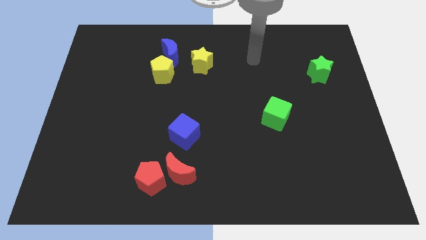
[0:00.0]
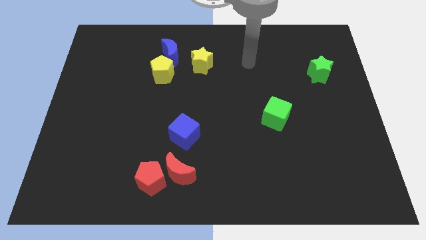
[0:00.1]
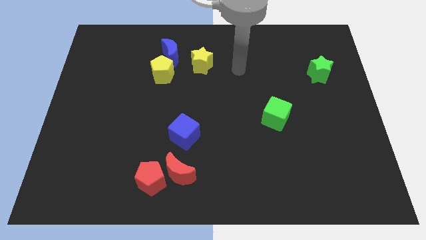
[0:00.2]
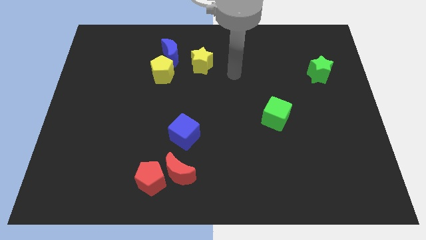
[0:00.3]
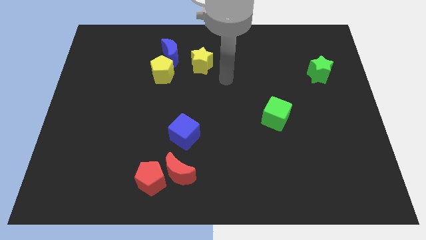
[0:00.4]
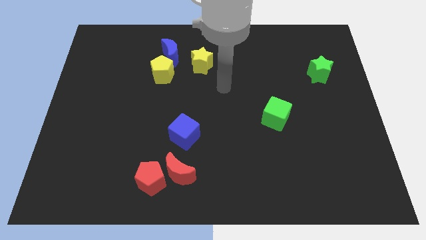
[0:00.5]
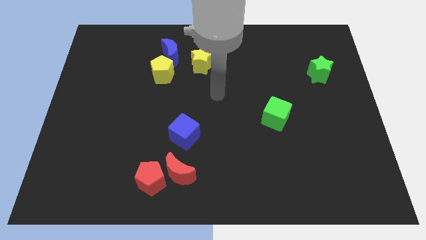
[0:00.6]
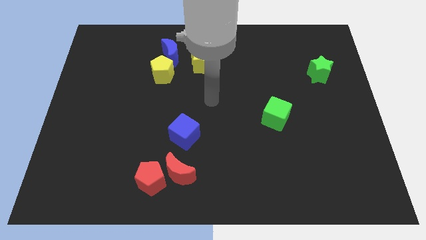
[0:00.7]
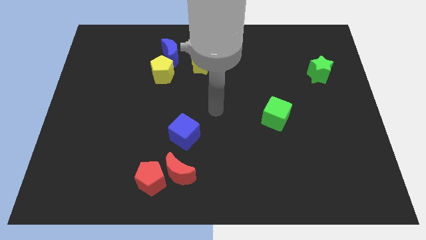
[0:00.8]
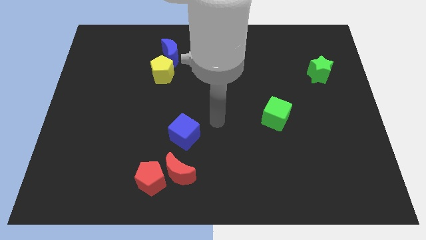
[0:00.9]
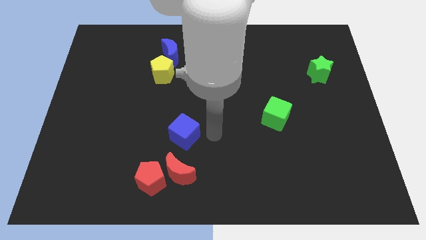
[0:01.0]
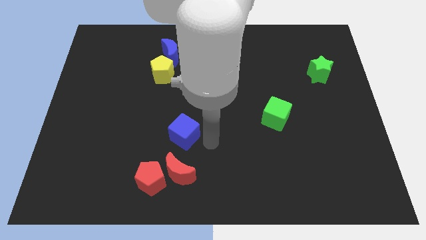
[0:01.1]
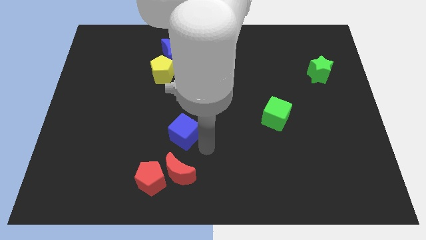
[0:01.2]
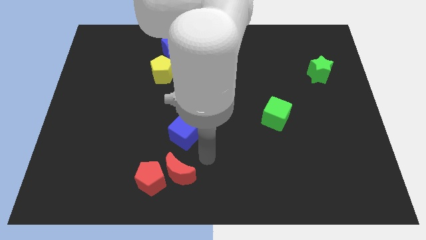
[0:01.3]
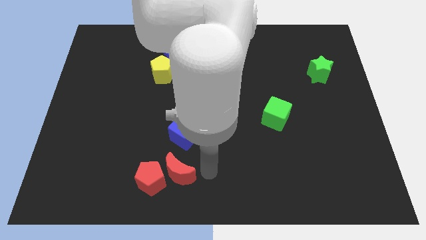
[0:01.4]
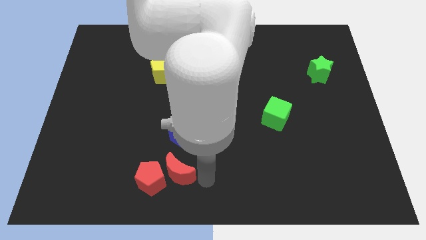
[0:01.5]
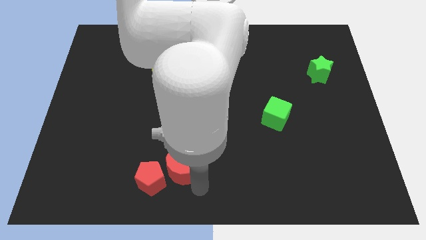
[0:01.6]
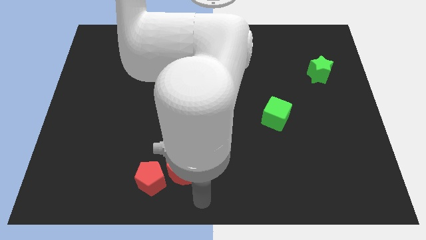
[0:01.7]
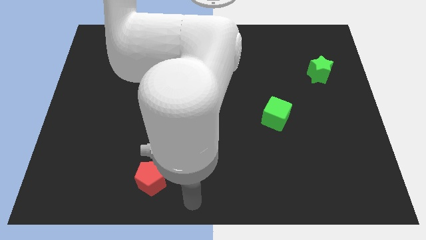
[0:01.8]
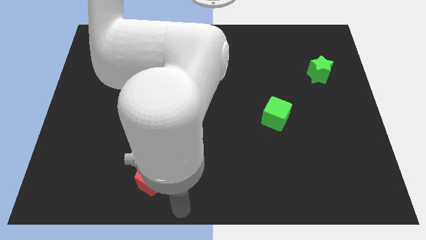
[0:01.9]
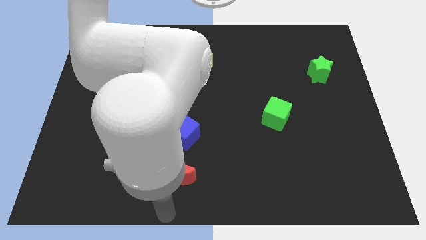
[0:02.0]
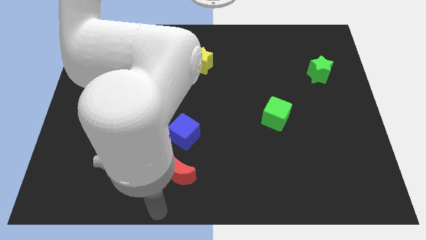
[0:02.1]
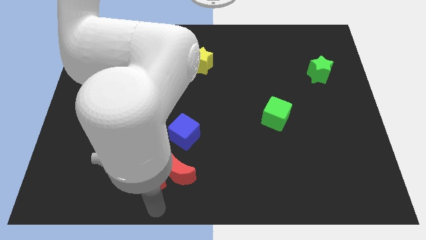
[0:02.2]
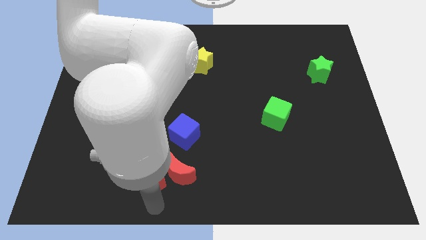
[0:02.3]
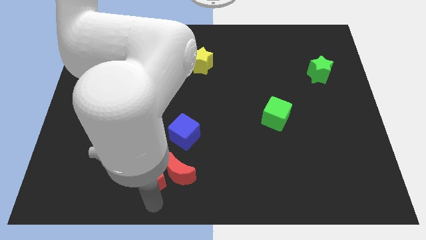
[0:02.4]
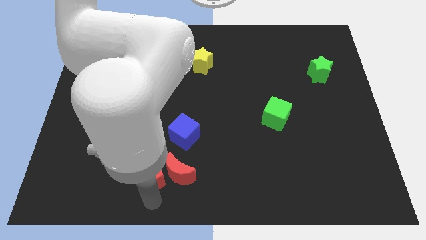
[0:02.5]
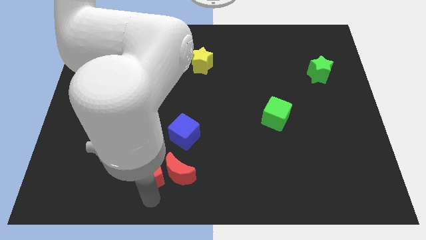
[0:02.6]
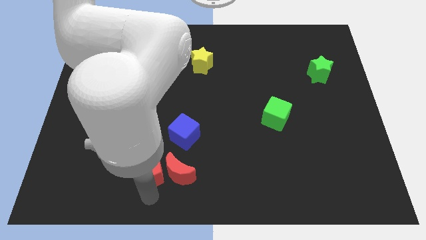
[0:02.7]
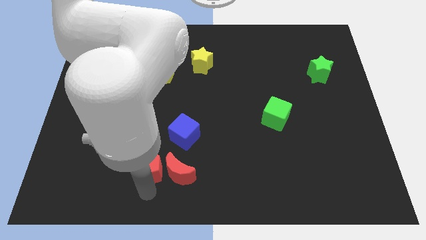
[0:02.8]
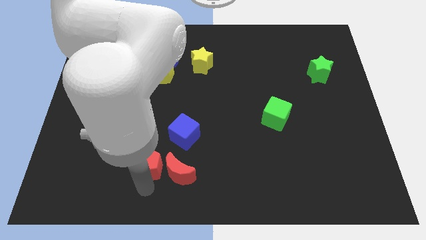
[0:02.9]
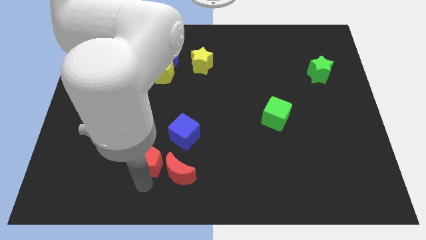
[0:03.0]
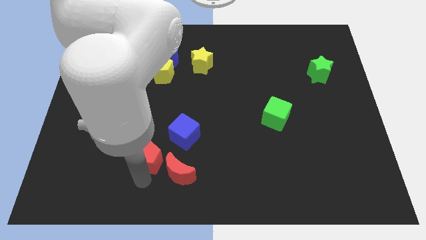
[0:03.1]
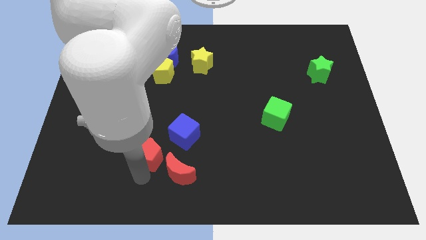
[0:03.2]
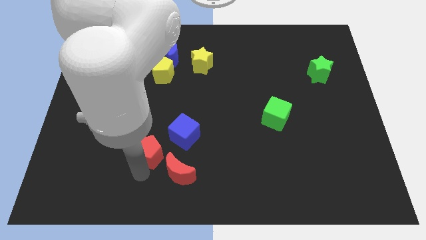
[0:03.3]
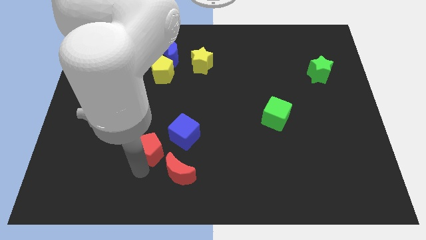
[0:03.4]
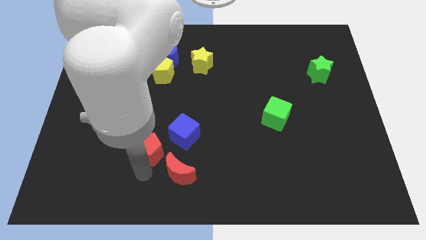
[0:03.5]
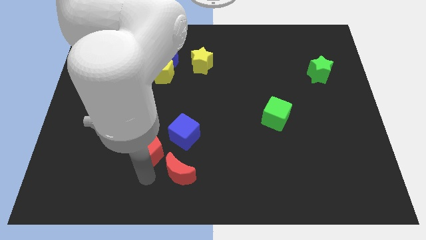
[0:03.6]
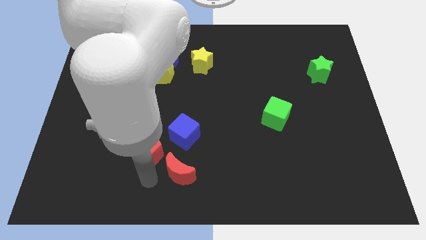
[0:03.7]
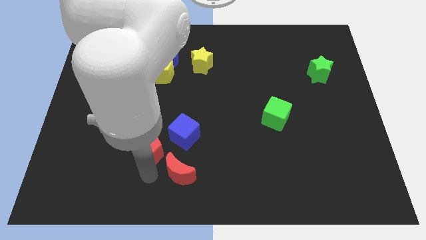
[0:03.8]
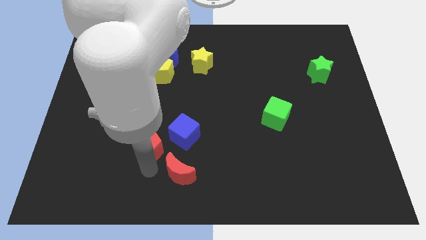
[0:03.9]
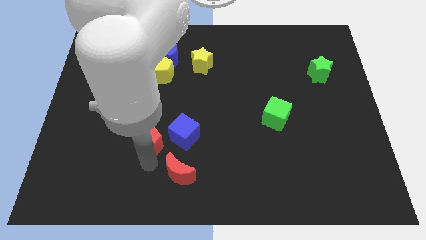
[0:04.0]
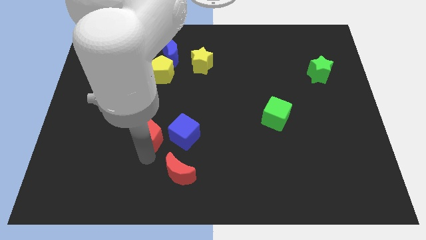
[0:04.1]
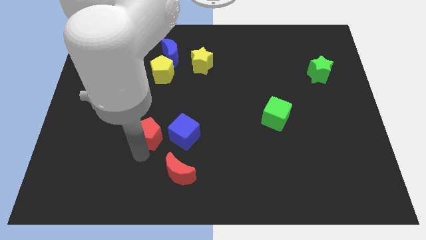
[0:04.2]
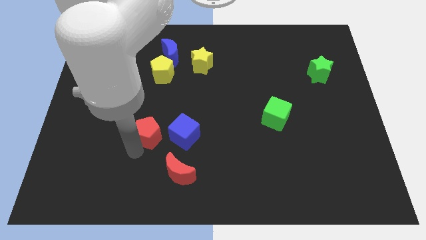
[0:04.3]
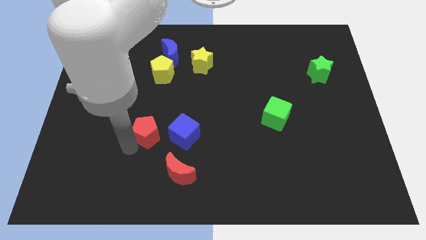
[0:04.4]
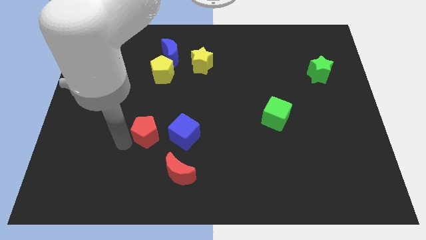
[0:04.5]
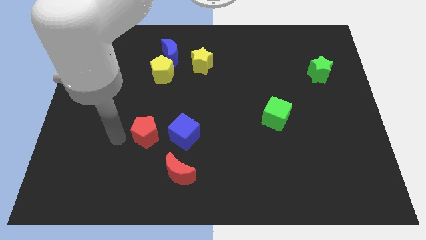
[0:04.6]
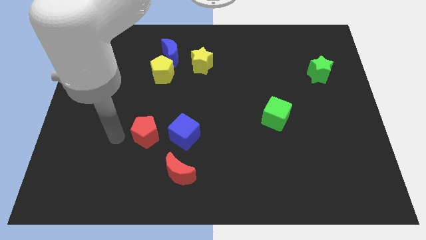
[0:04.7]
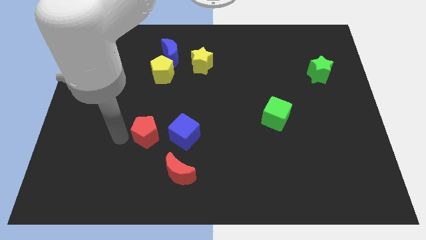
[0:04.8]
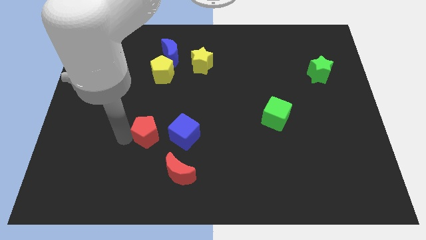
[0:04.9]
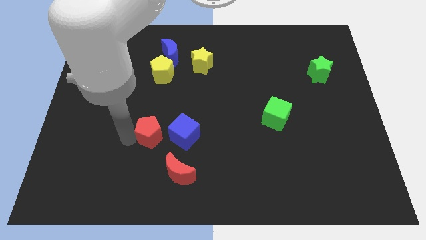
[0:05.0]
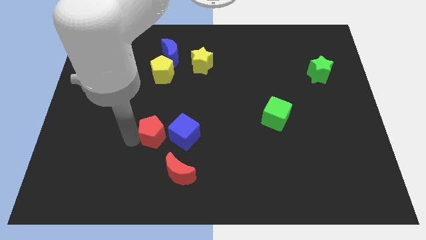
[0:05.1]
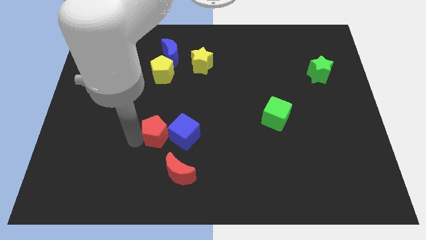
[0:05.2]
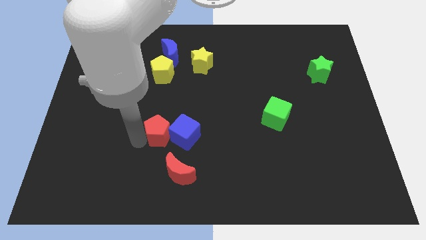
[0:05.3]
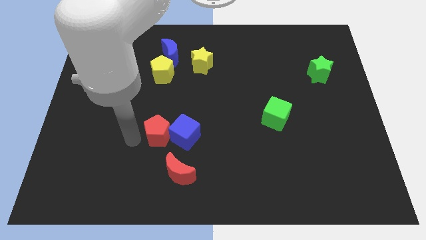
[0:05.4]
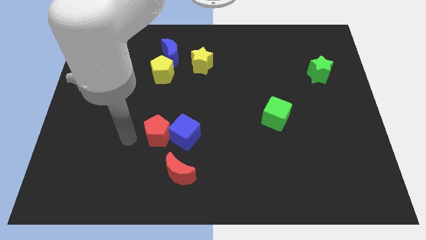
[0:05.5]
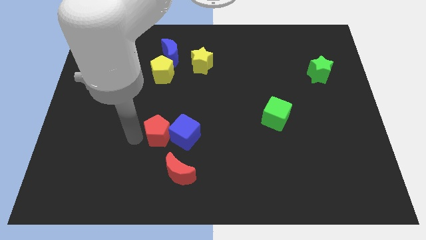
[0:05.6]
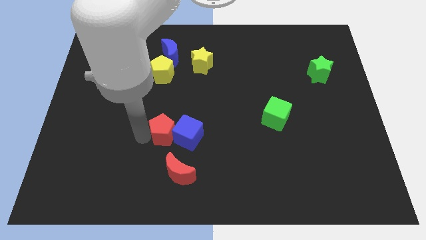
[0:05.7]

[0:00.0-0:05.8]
move the red pentagon to the top side of the red moon

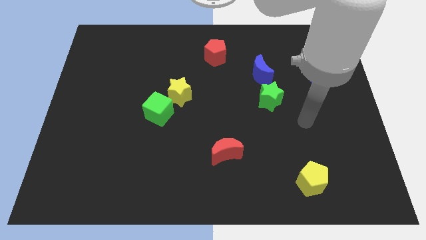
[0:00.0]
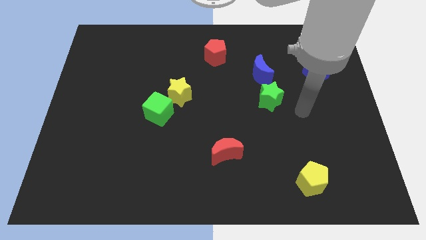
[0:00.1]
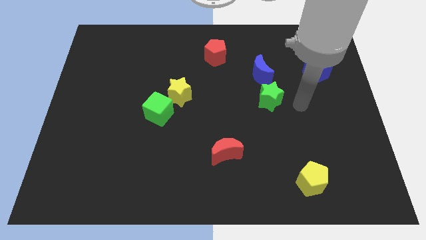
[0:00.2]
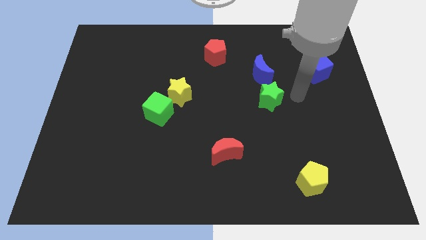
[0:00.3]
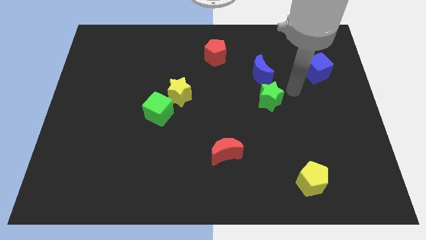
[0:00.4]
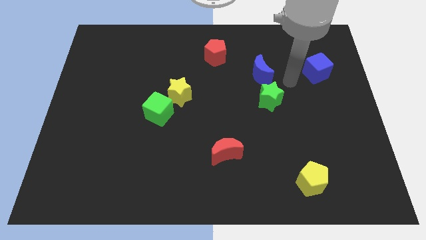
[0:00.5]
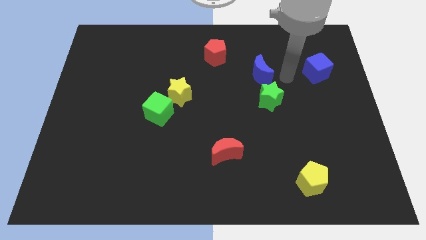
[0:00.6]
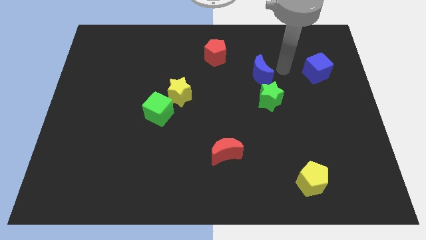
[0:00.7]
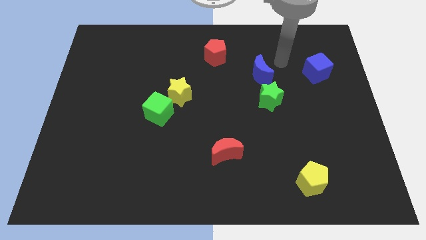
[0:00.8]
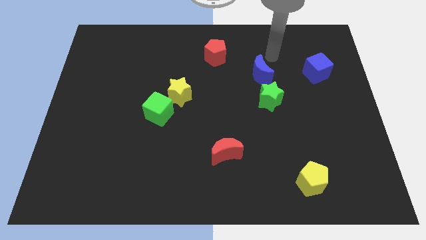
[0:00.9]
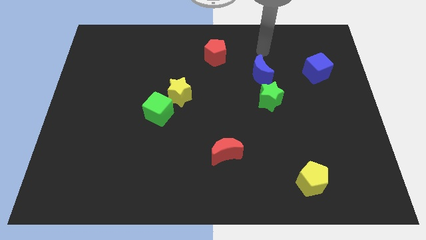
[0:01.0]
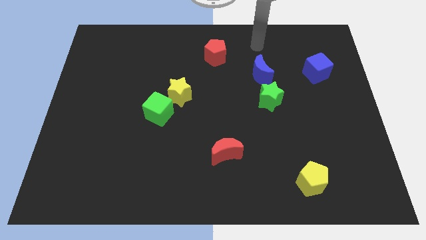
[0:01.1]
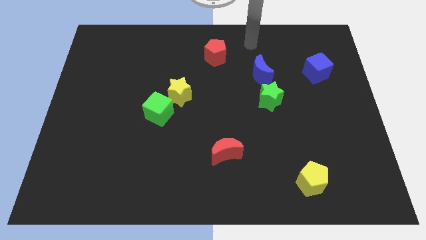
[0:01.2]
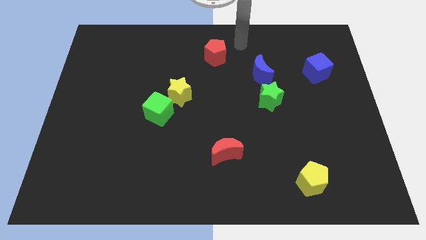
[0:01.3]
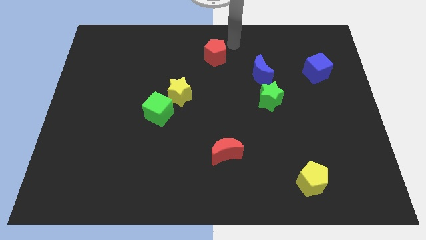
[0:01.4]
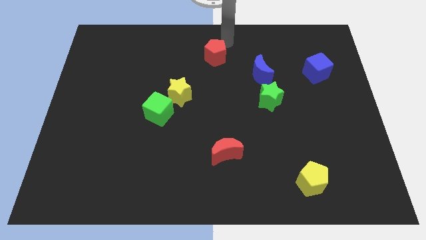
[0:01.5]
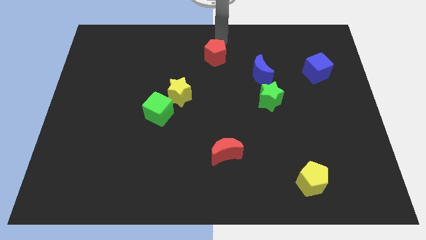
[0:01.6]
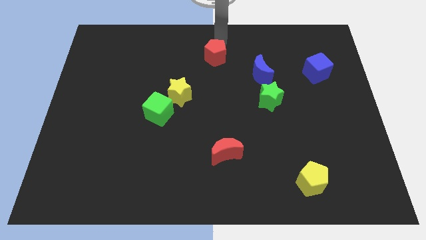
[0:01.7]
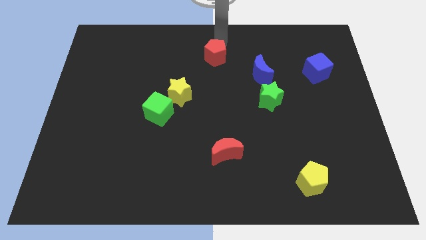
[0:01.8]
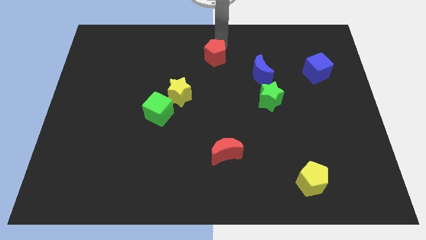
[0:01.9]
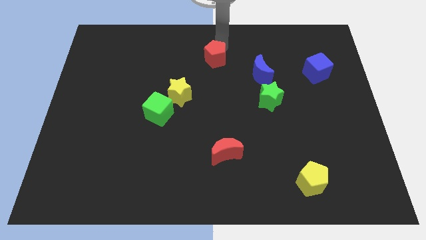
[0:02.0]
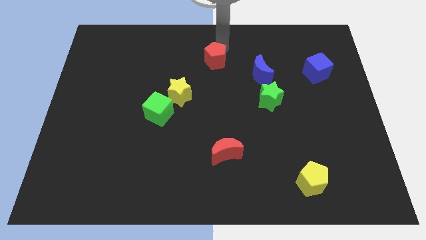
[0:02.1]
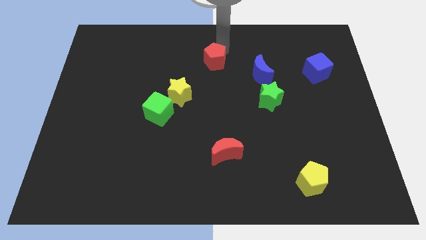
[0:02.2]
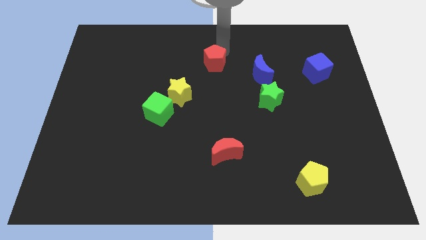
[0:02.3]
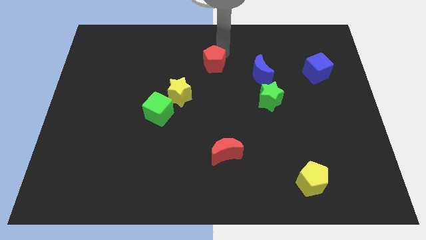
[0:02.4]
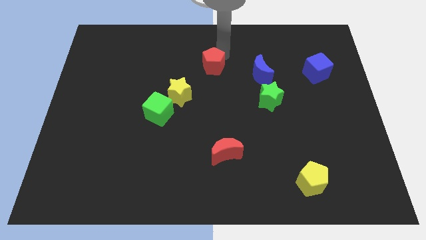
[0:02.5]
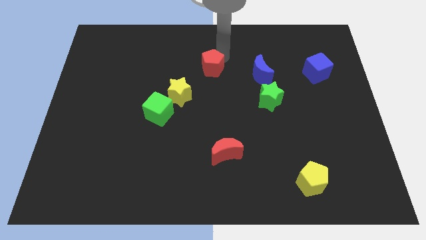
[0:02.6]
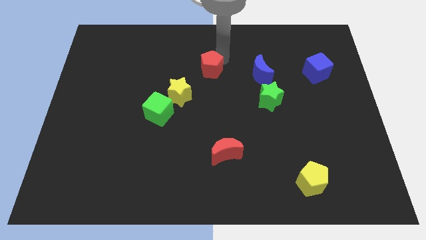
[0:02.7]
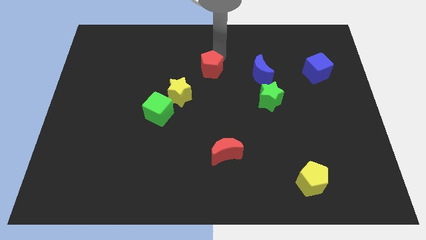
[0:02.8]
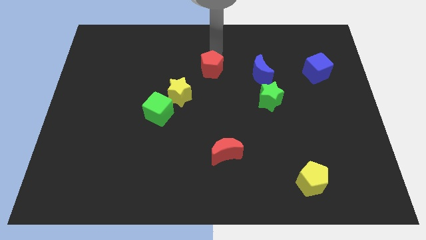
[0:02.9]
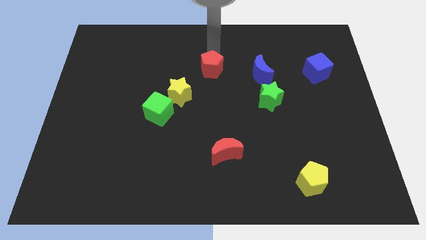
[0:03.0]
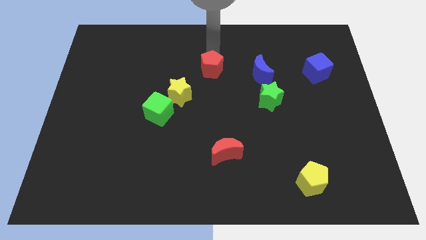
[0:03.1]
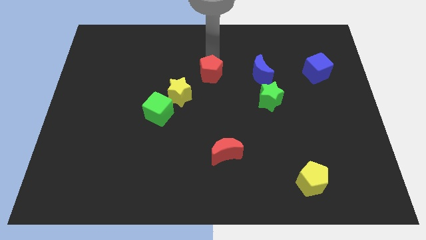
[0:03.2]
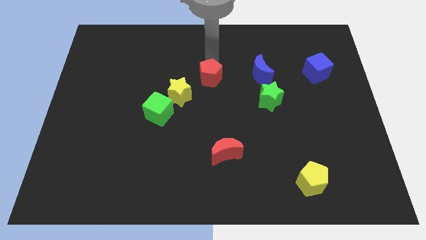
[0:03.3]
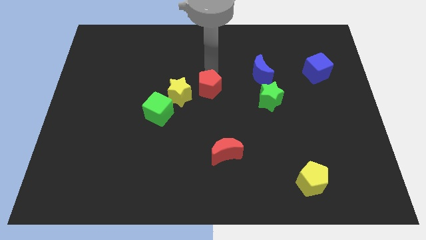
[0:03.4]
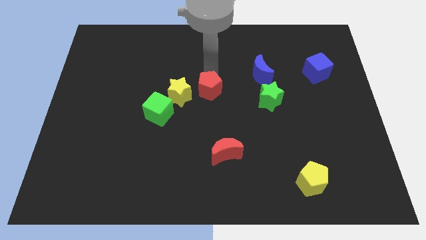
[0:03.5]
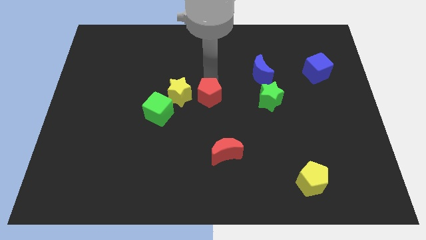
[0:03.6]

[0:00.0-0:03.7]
push the red pentagon to the right side of the green cube
